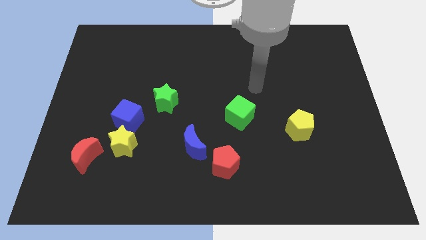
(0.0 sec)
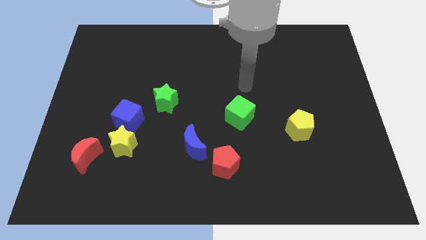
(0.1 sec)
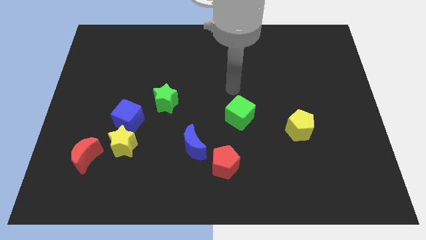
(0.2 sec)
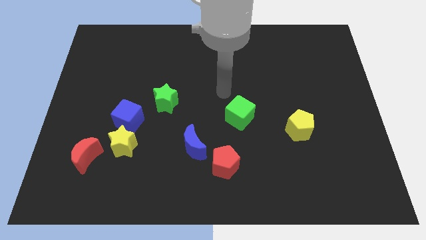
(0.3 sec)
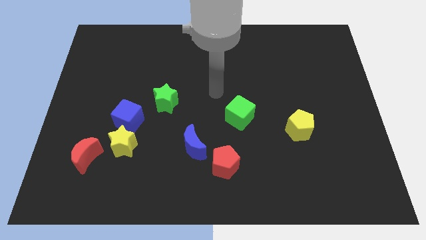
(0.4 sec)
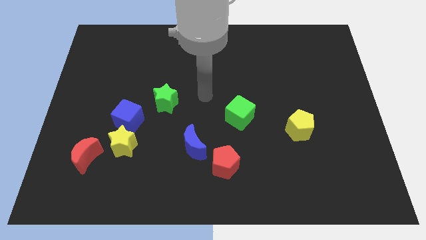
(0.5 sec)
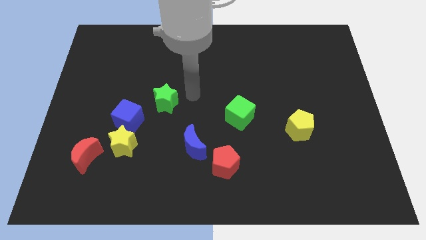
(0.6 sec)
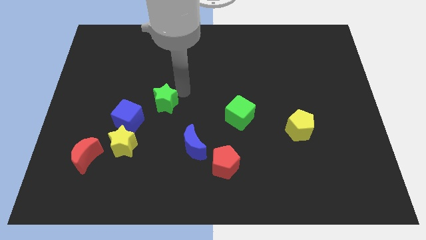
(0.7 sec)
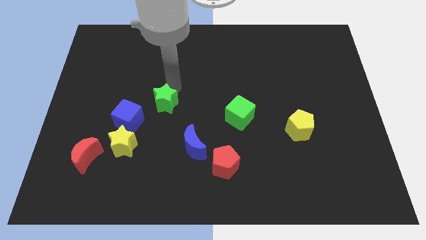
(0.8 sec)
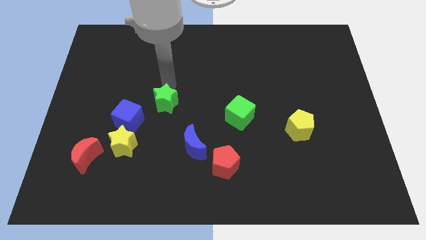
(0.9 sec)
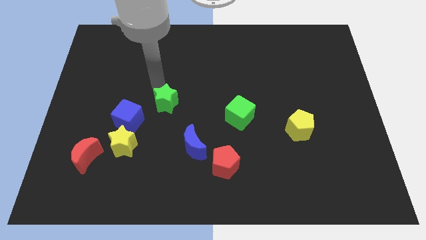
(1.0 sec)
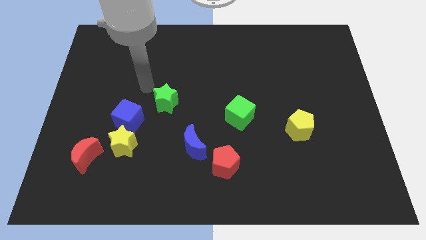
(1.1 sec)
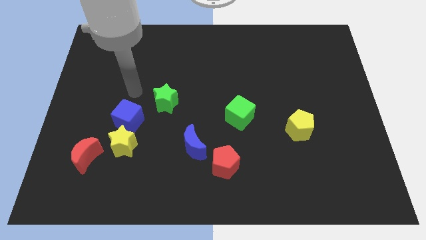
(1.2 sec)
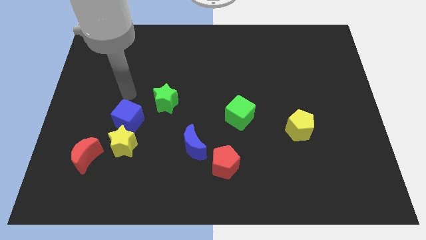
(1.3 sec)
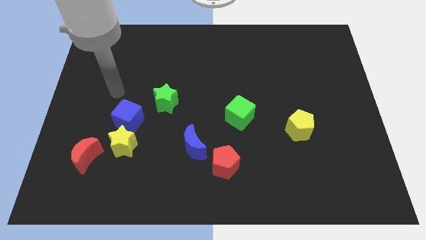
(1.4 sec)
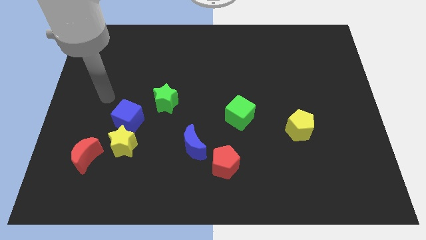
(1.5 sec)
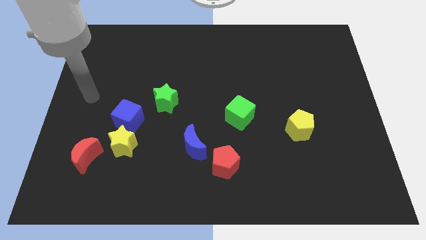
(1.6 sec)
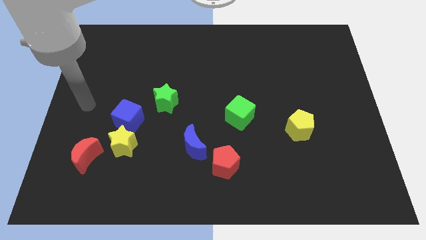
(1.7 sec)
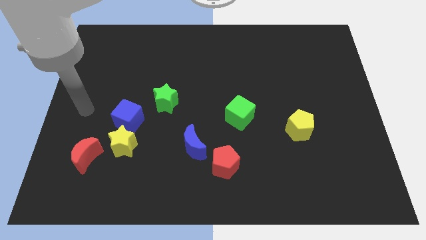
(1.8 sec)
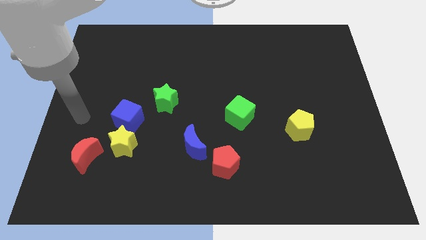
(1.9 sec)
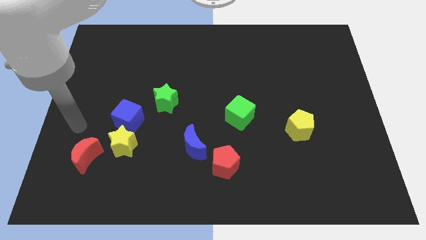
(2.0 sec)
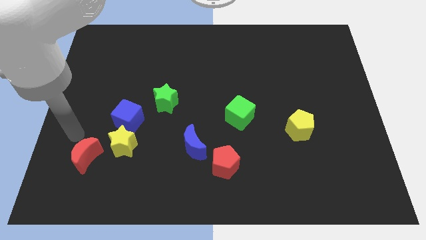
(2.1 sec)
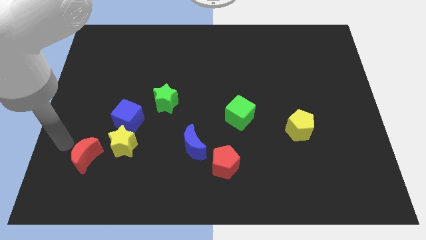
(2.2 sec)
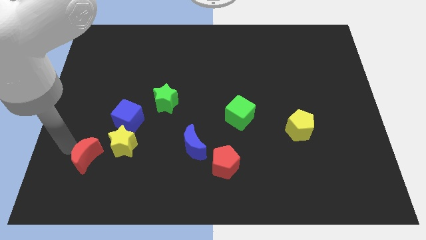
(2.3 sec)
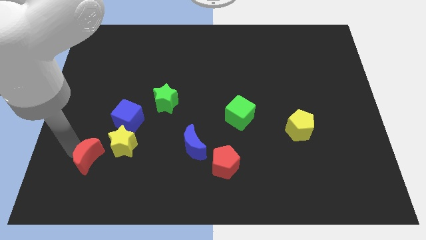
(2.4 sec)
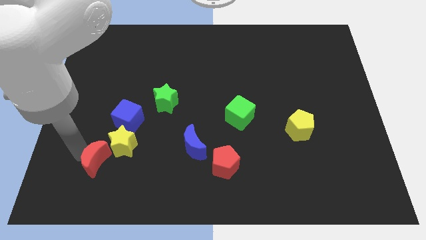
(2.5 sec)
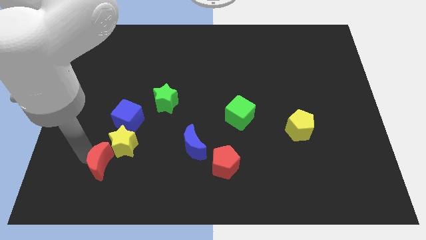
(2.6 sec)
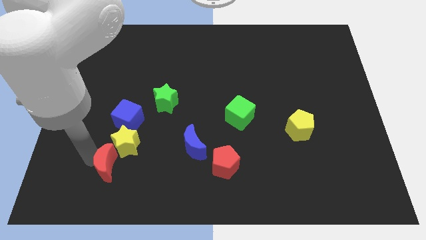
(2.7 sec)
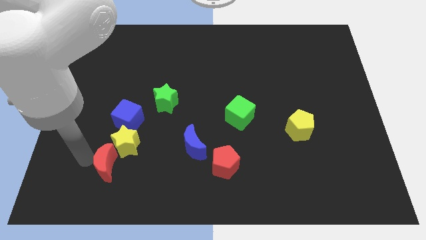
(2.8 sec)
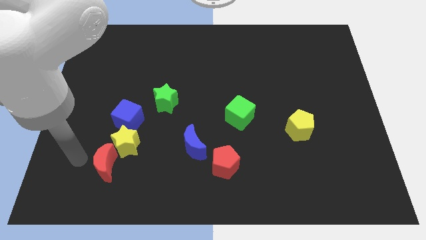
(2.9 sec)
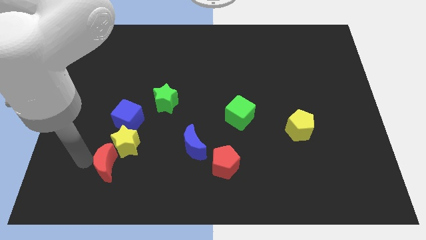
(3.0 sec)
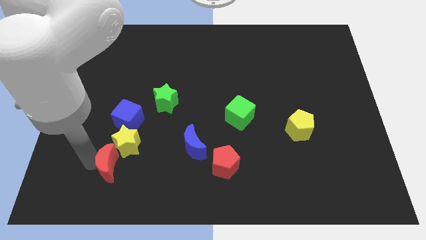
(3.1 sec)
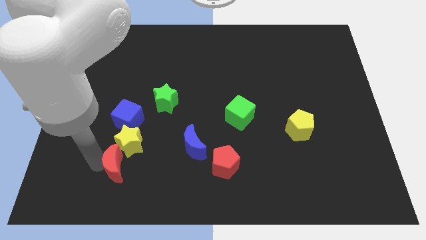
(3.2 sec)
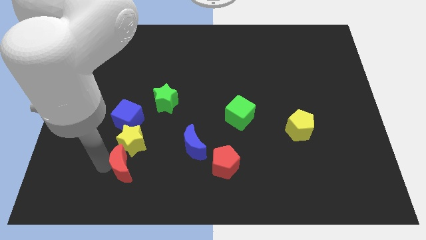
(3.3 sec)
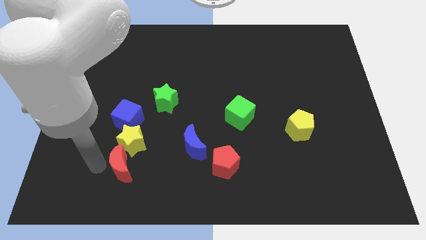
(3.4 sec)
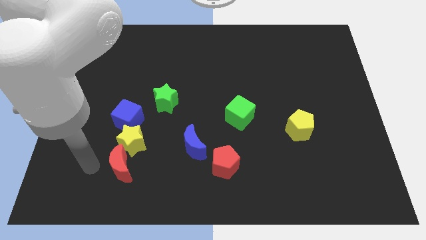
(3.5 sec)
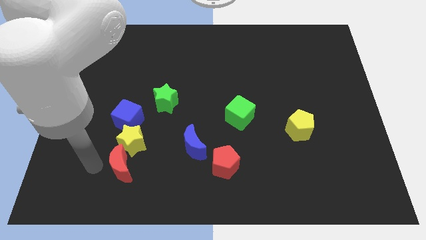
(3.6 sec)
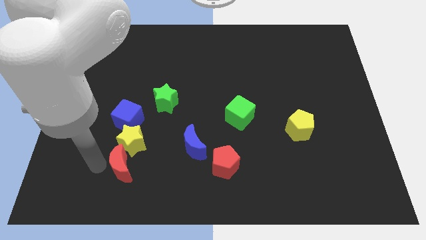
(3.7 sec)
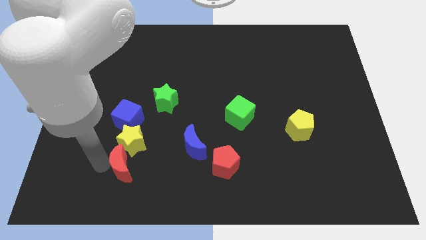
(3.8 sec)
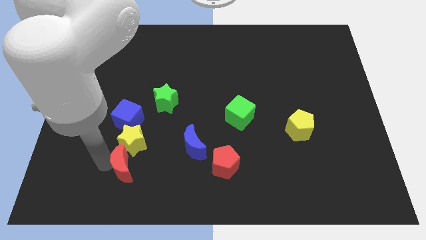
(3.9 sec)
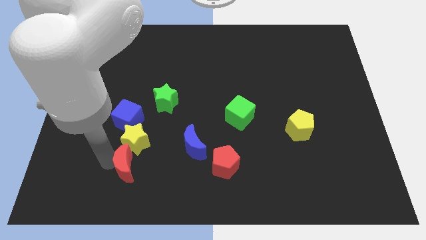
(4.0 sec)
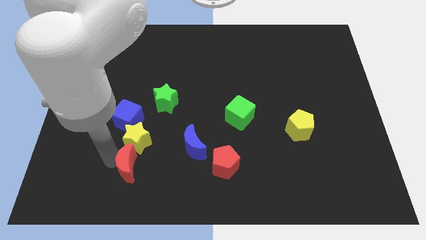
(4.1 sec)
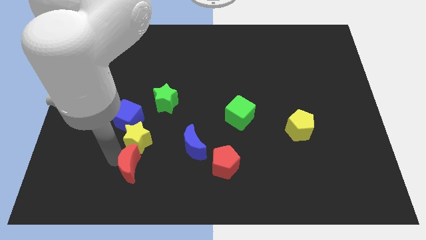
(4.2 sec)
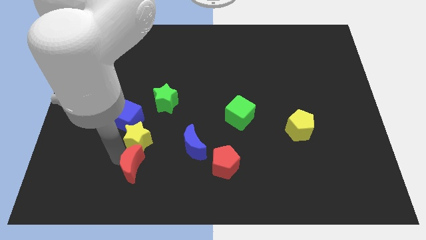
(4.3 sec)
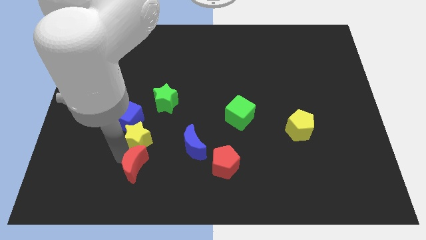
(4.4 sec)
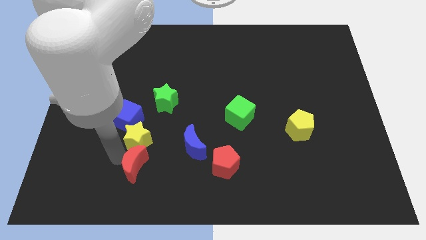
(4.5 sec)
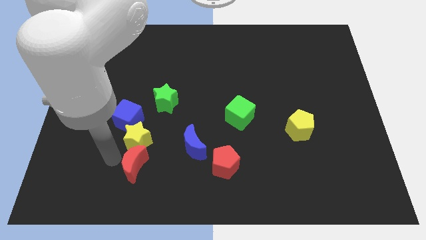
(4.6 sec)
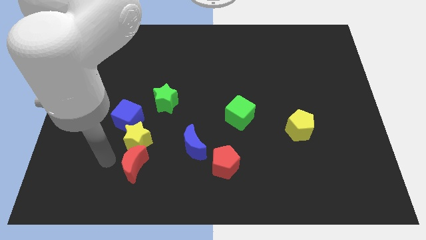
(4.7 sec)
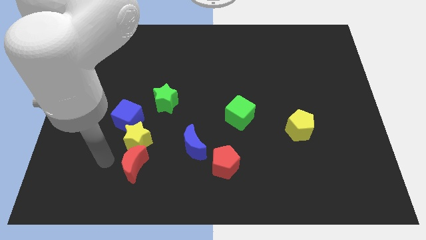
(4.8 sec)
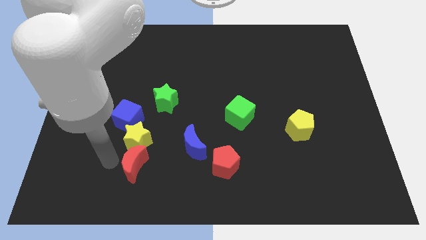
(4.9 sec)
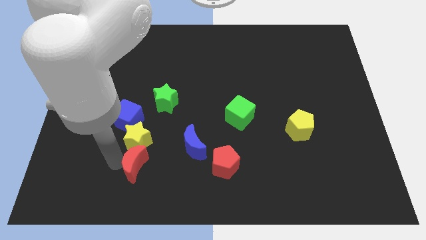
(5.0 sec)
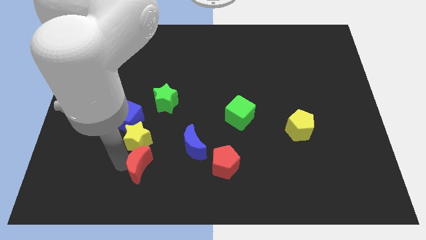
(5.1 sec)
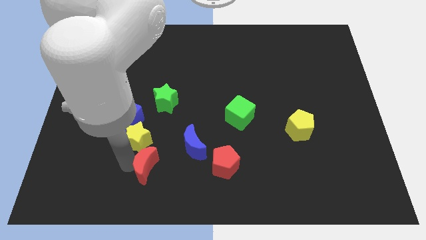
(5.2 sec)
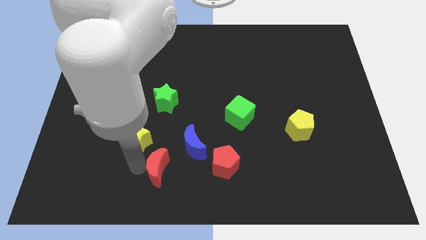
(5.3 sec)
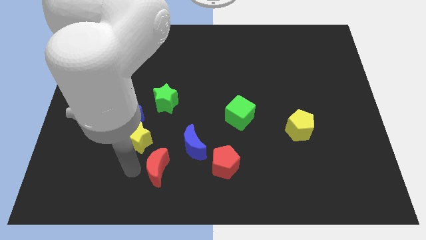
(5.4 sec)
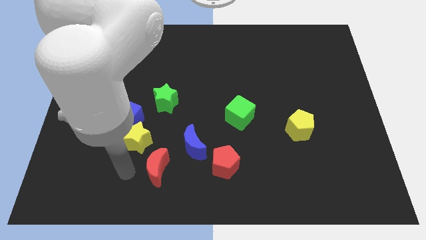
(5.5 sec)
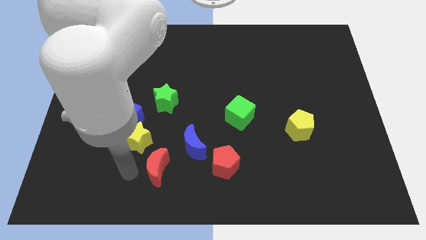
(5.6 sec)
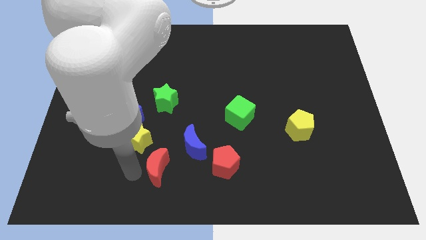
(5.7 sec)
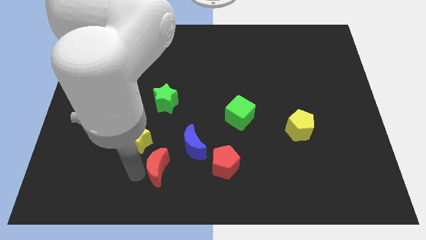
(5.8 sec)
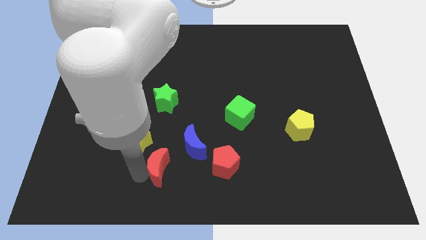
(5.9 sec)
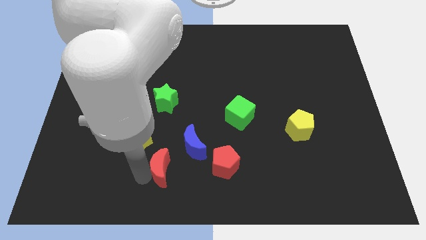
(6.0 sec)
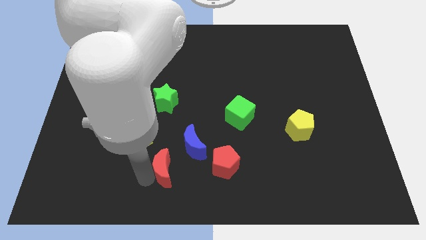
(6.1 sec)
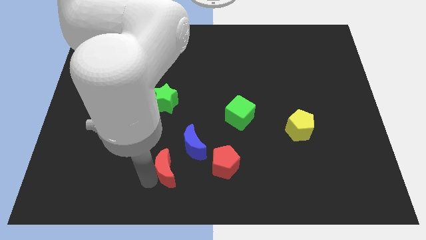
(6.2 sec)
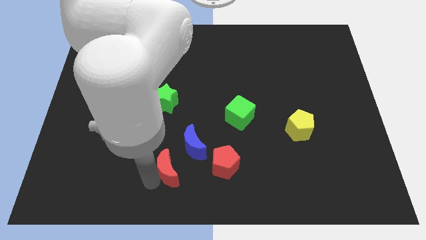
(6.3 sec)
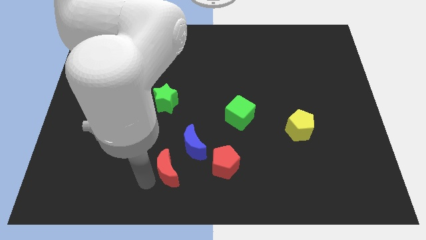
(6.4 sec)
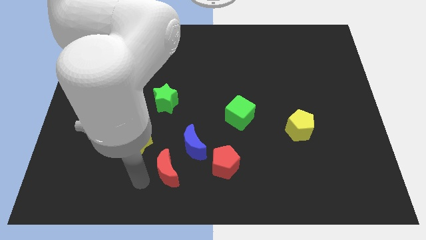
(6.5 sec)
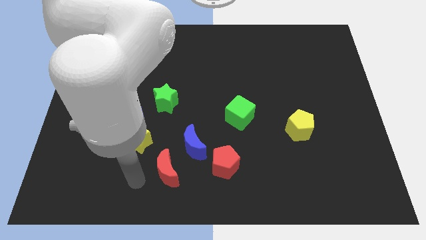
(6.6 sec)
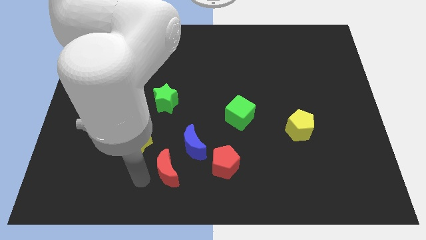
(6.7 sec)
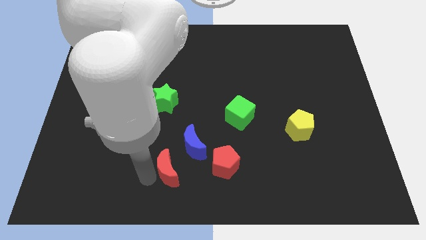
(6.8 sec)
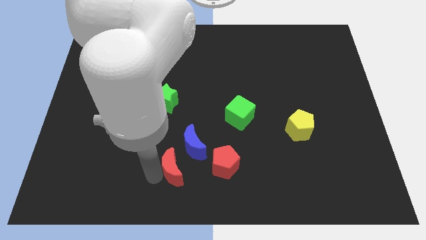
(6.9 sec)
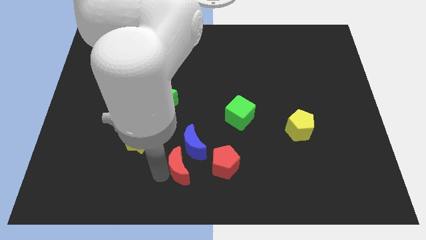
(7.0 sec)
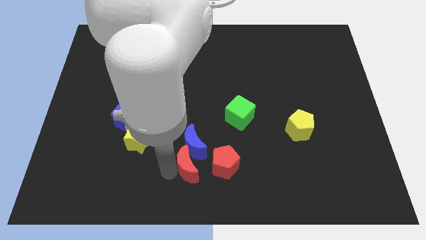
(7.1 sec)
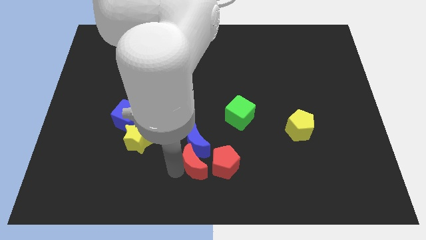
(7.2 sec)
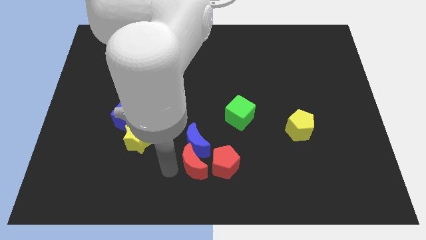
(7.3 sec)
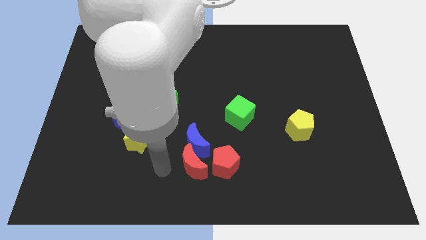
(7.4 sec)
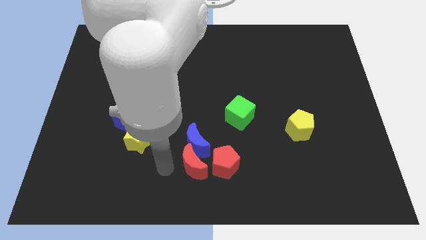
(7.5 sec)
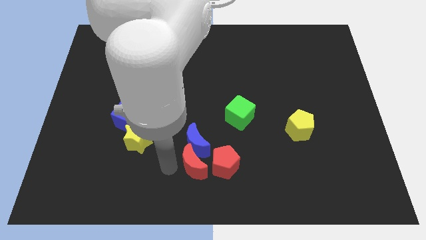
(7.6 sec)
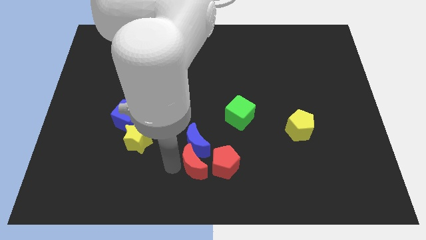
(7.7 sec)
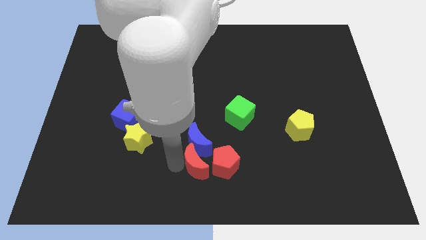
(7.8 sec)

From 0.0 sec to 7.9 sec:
put the red moon to the red pentagon
